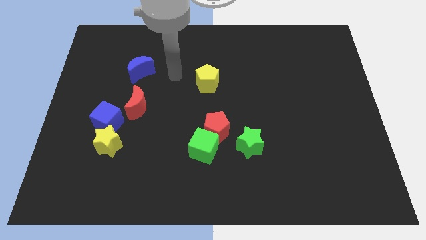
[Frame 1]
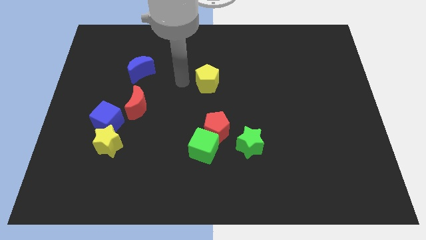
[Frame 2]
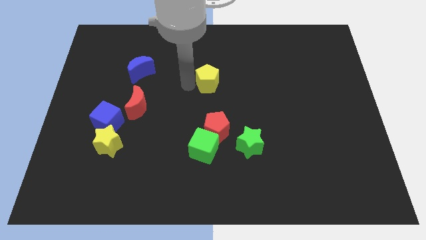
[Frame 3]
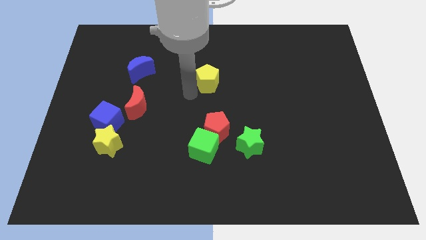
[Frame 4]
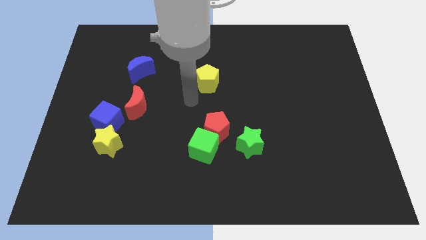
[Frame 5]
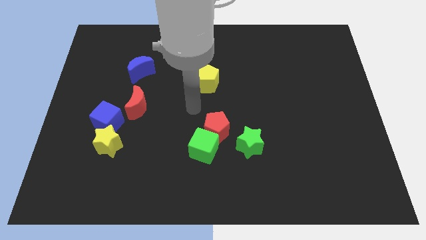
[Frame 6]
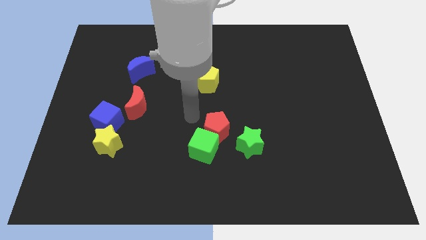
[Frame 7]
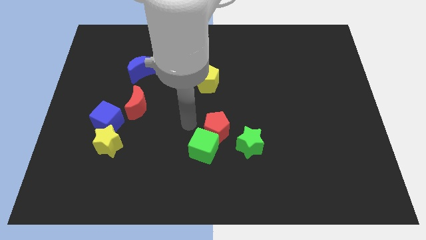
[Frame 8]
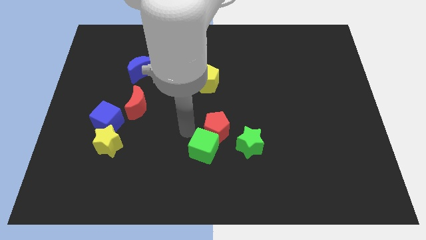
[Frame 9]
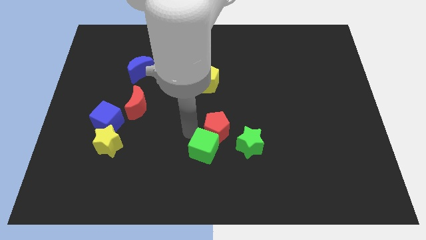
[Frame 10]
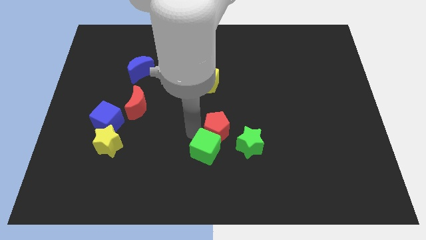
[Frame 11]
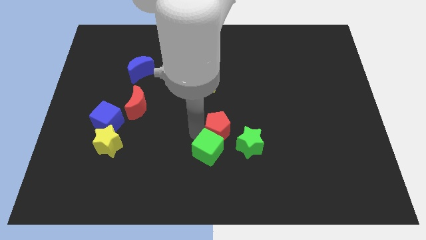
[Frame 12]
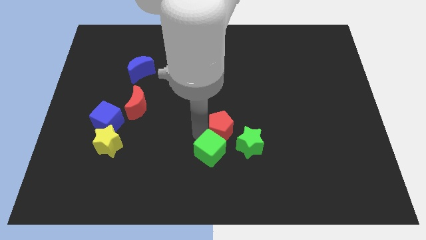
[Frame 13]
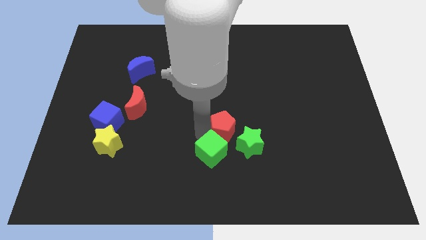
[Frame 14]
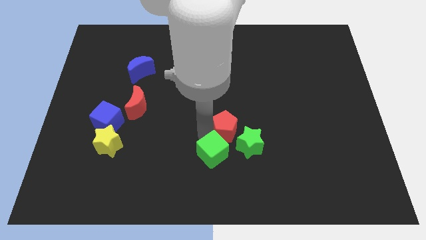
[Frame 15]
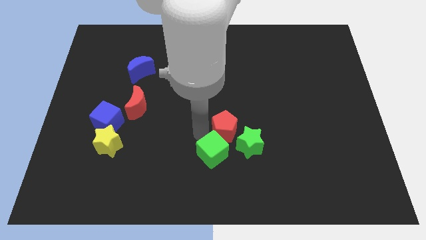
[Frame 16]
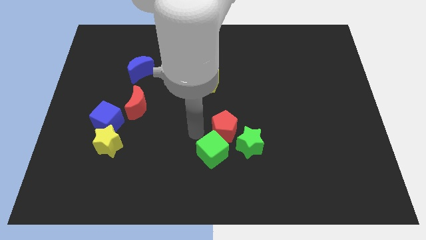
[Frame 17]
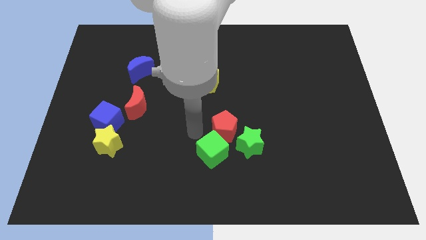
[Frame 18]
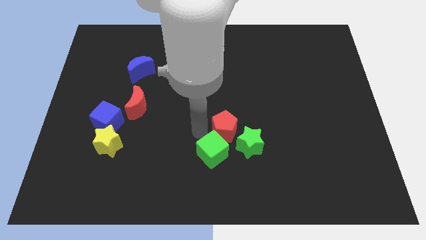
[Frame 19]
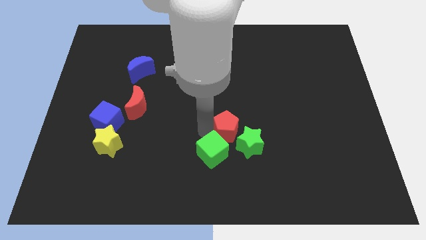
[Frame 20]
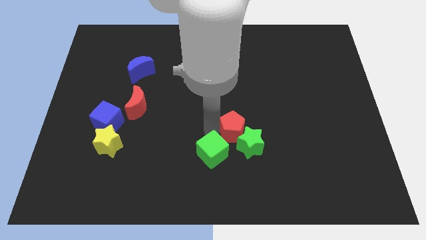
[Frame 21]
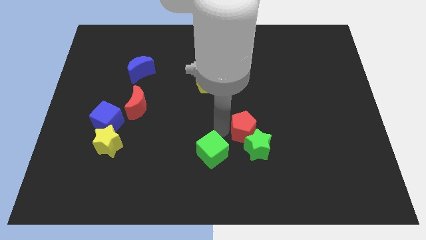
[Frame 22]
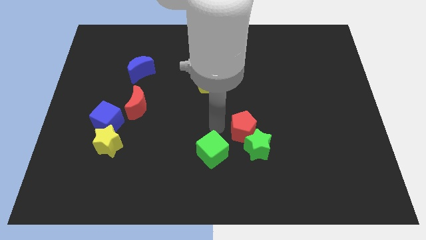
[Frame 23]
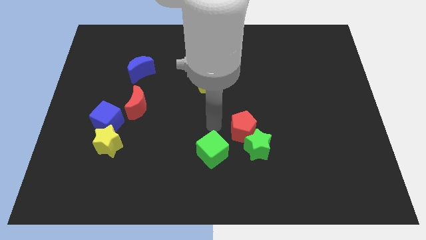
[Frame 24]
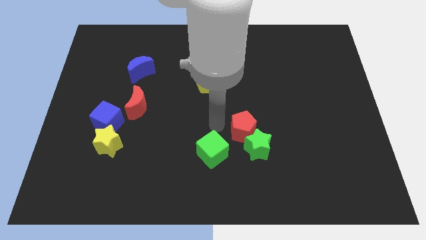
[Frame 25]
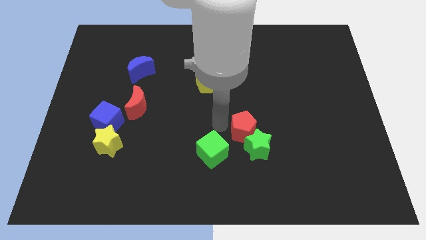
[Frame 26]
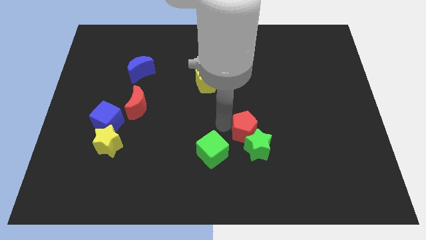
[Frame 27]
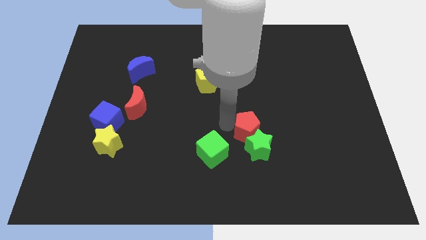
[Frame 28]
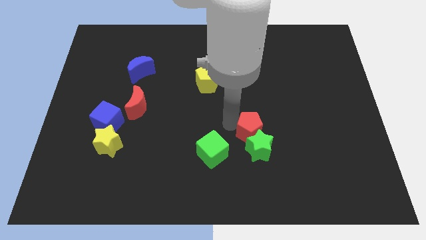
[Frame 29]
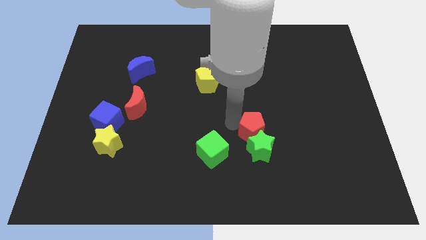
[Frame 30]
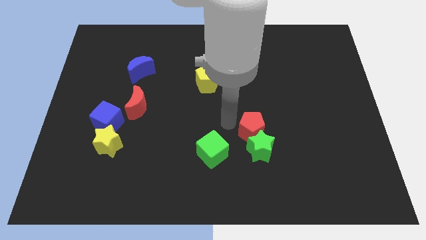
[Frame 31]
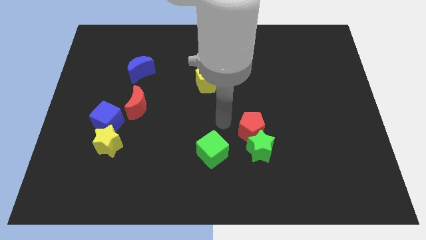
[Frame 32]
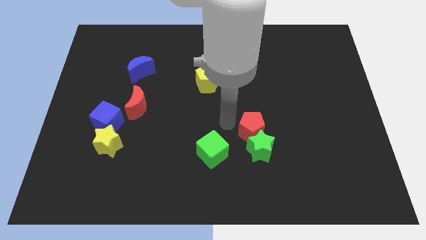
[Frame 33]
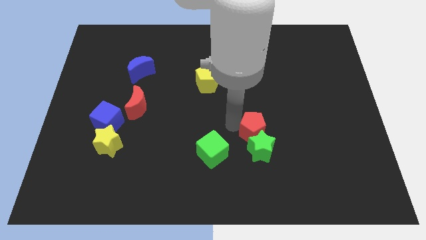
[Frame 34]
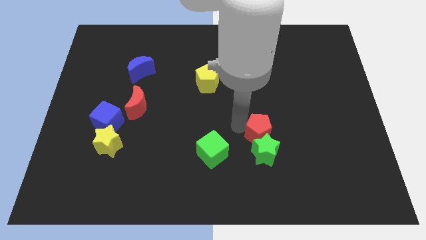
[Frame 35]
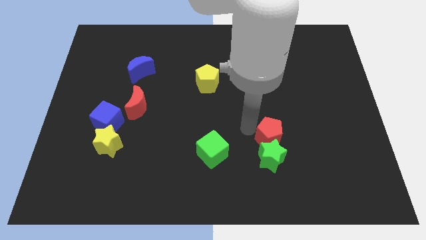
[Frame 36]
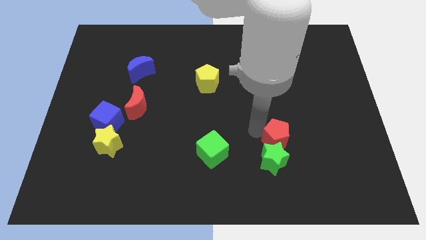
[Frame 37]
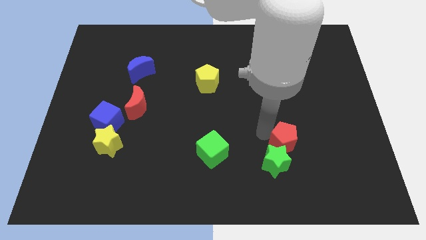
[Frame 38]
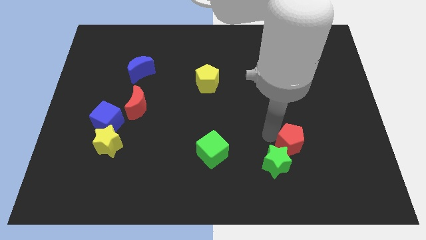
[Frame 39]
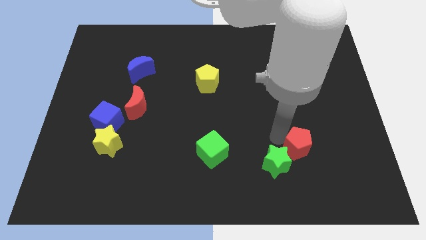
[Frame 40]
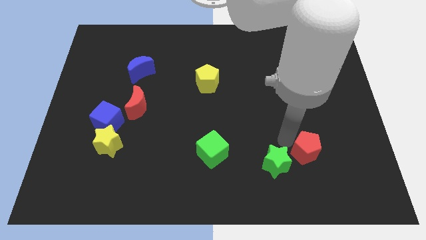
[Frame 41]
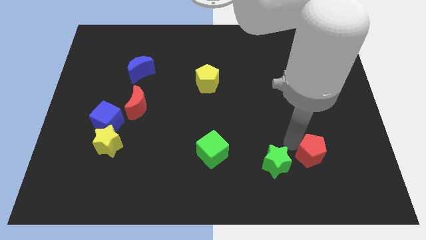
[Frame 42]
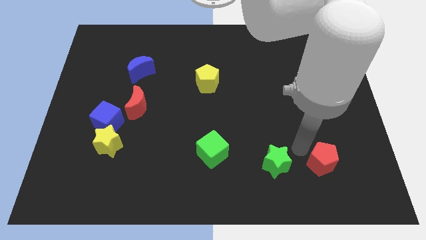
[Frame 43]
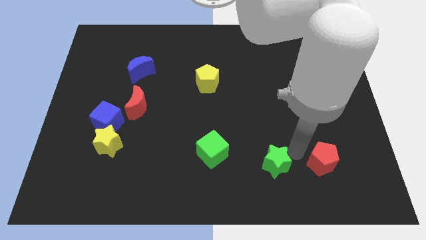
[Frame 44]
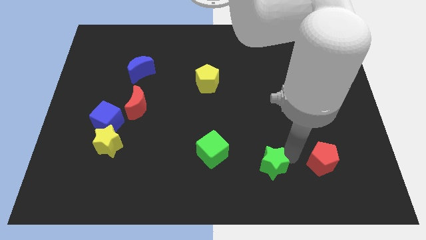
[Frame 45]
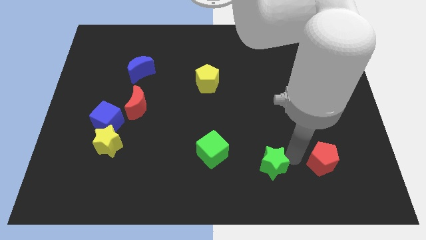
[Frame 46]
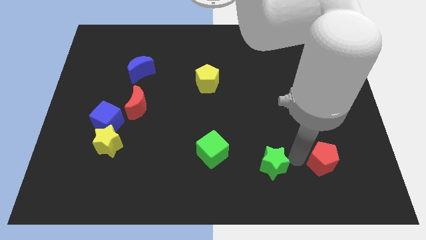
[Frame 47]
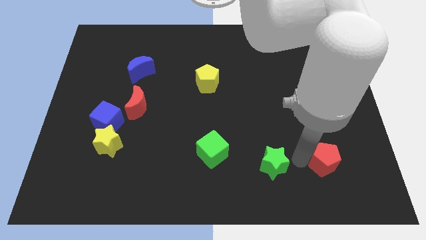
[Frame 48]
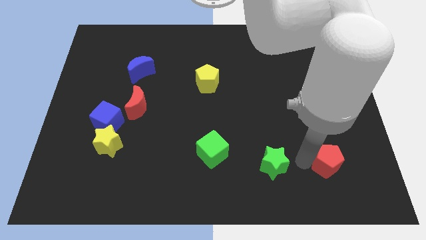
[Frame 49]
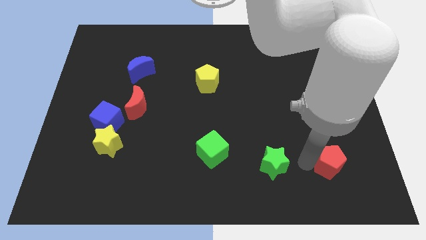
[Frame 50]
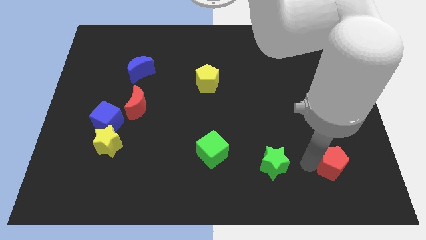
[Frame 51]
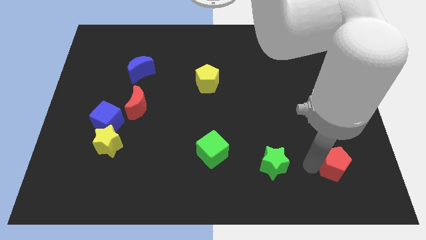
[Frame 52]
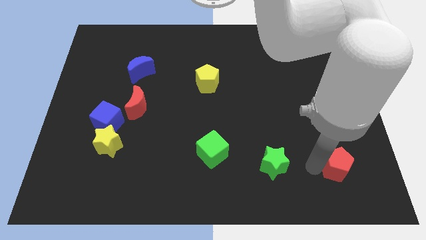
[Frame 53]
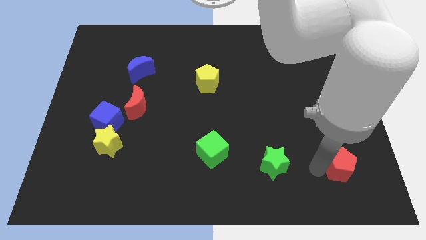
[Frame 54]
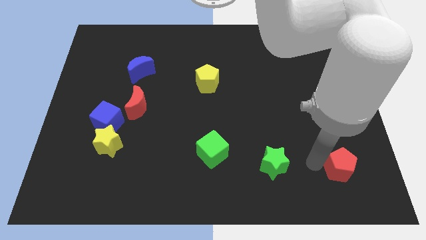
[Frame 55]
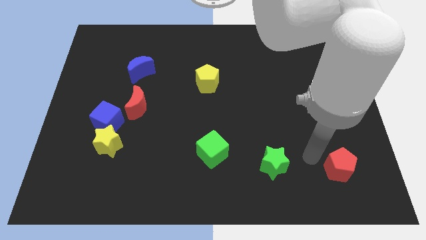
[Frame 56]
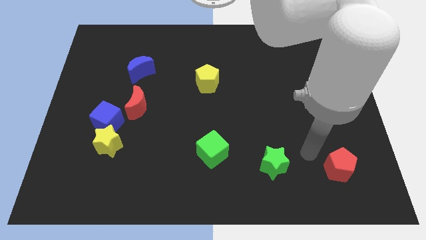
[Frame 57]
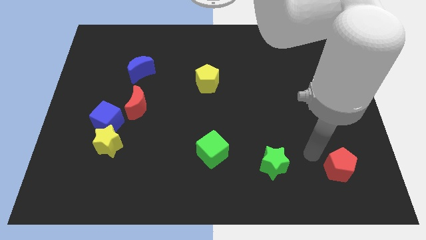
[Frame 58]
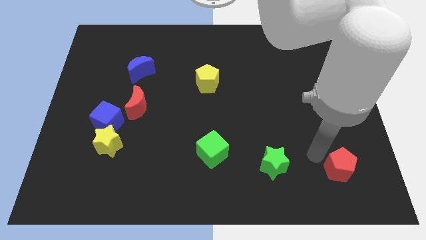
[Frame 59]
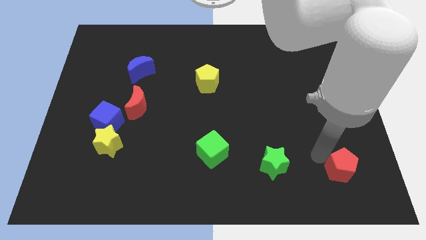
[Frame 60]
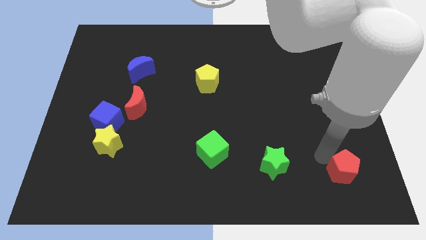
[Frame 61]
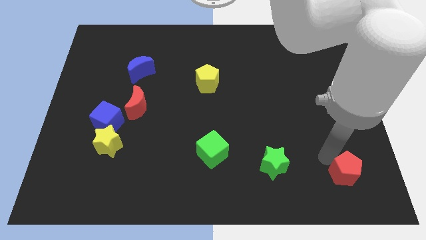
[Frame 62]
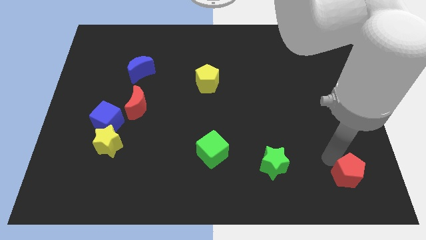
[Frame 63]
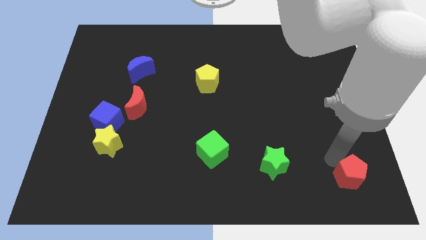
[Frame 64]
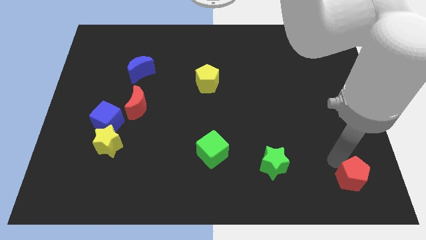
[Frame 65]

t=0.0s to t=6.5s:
slide the red pentagon to the lower right corner
